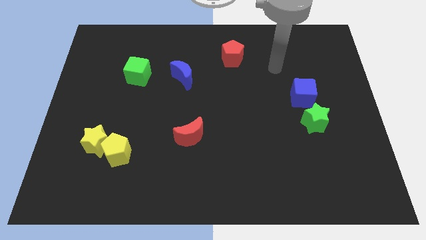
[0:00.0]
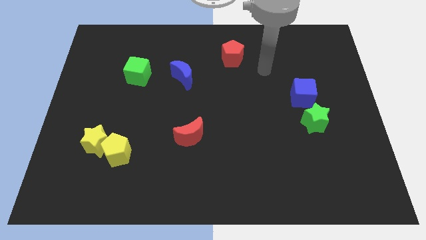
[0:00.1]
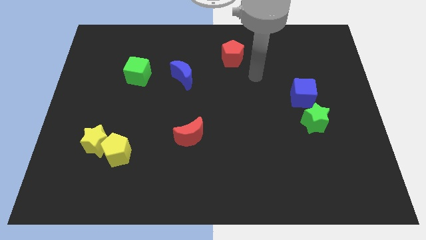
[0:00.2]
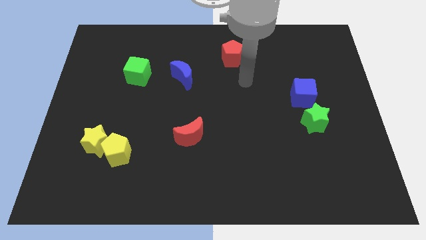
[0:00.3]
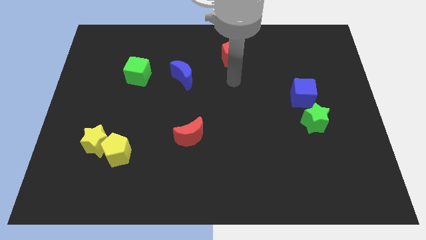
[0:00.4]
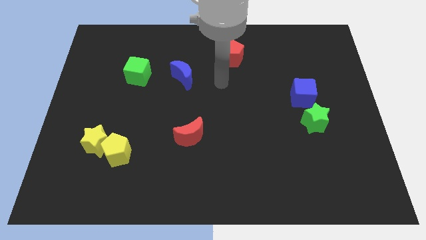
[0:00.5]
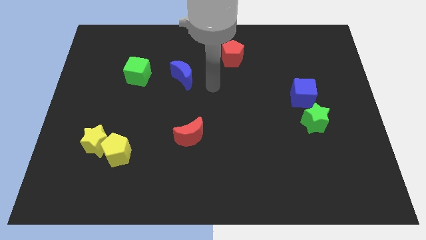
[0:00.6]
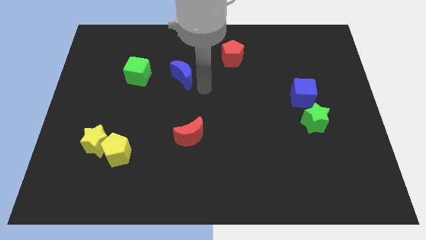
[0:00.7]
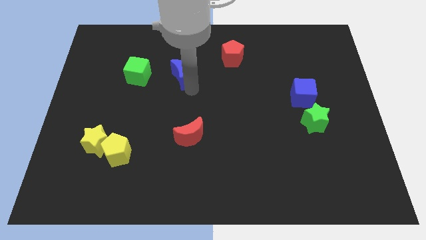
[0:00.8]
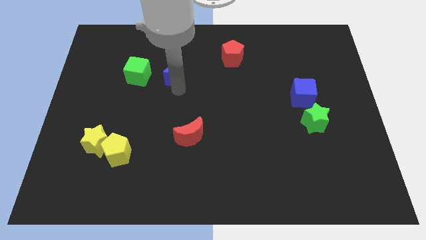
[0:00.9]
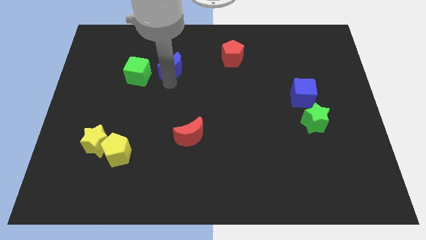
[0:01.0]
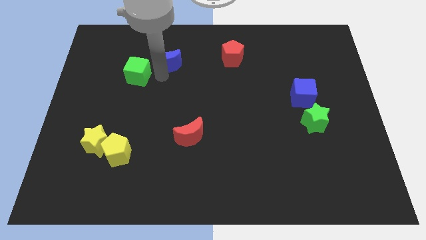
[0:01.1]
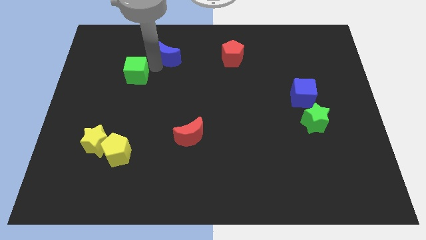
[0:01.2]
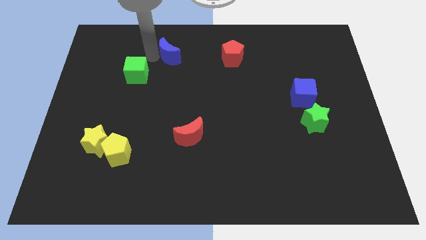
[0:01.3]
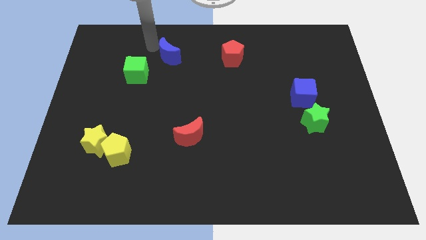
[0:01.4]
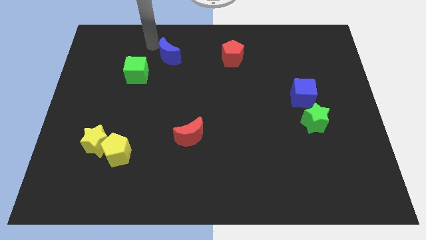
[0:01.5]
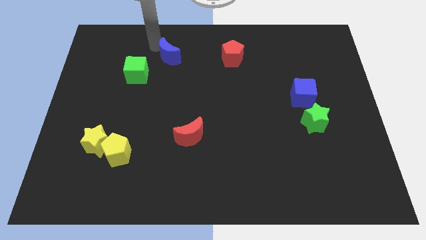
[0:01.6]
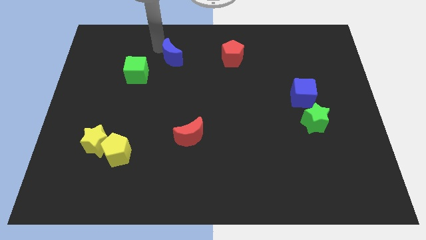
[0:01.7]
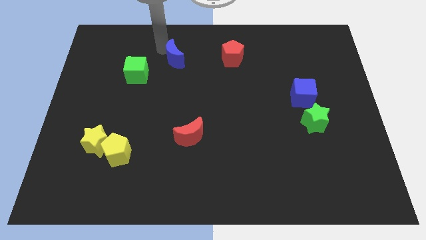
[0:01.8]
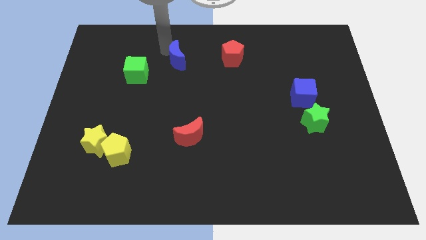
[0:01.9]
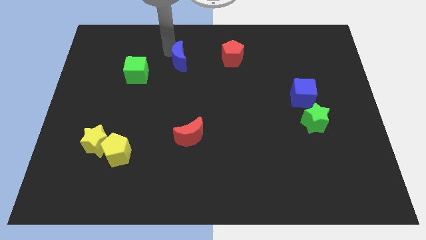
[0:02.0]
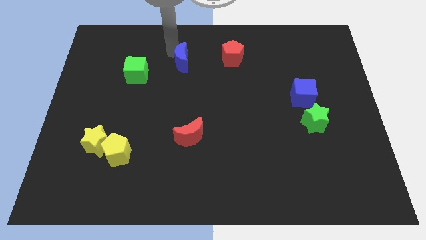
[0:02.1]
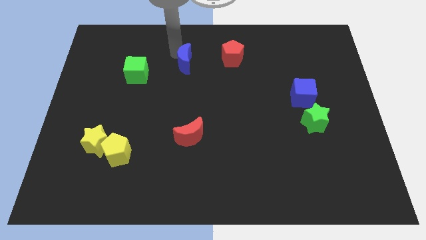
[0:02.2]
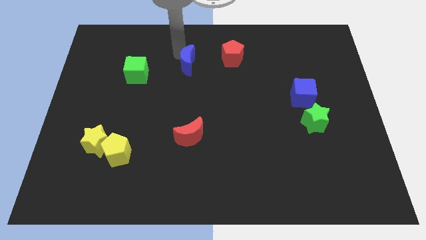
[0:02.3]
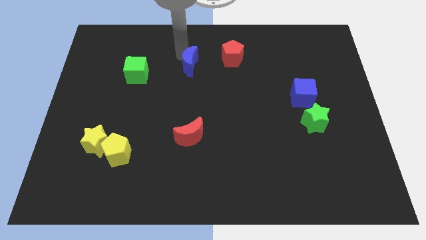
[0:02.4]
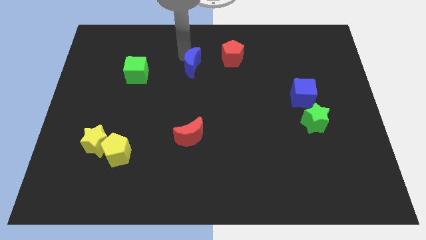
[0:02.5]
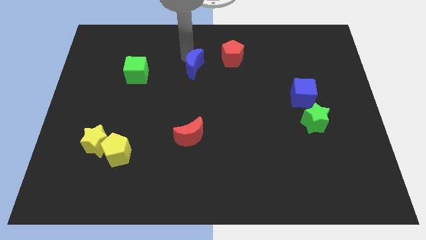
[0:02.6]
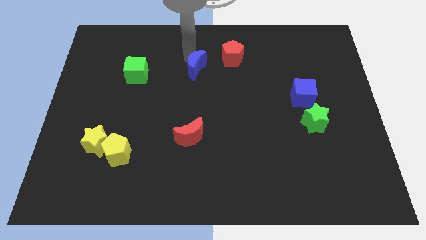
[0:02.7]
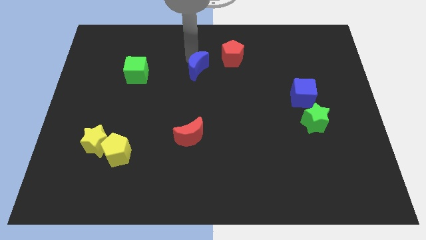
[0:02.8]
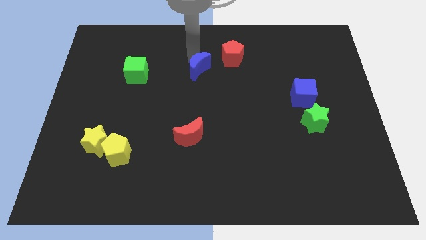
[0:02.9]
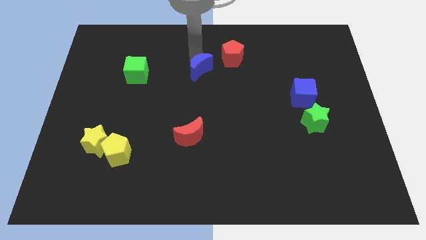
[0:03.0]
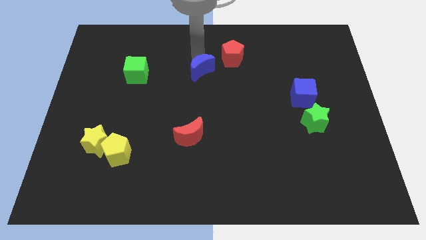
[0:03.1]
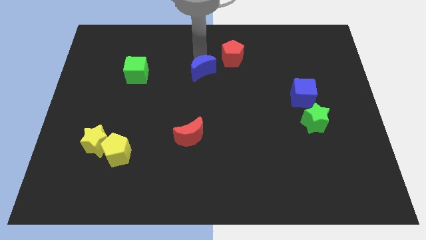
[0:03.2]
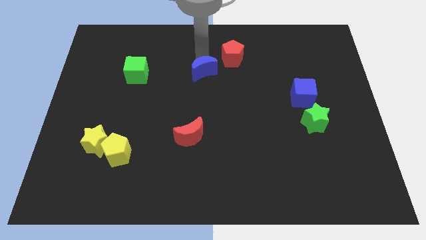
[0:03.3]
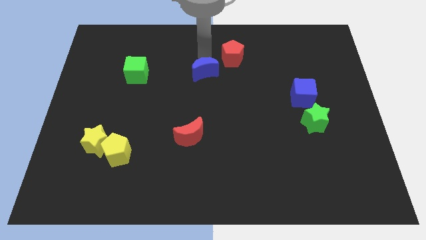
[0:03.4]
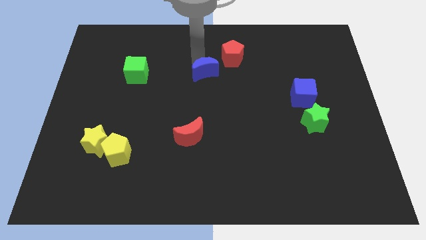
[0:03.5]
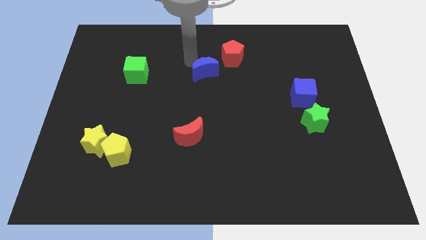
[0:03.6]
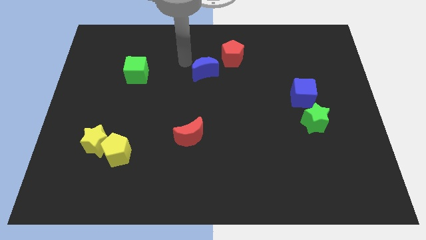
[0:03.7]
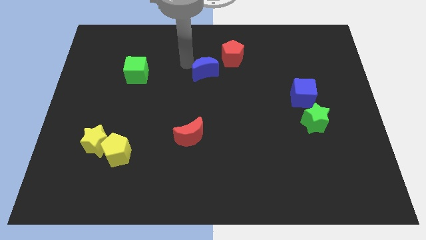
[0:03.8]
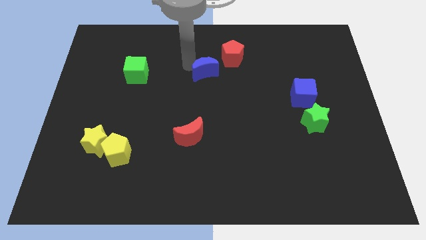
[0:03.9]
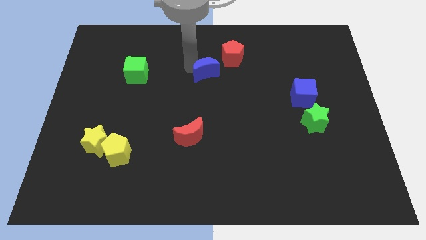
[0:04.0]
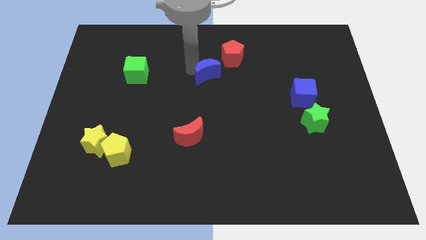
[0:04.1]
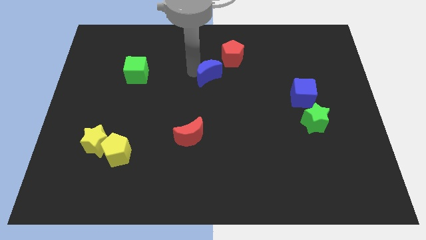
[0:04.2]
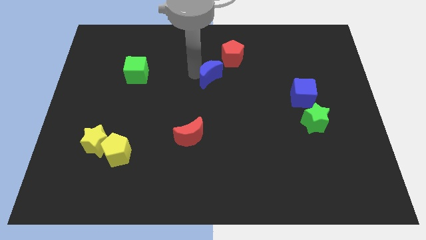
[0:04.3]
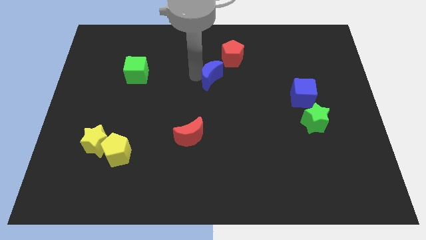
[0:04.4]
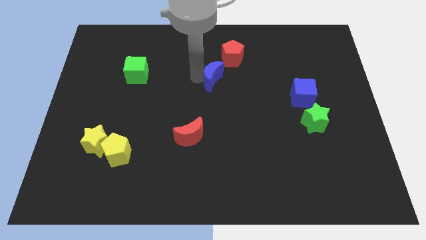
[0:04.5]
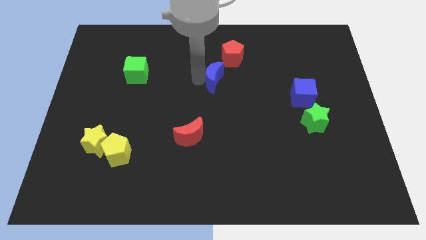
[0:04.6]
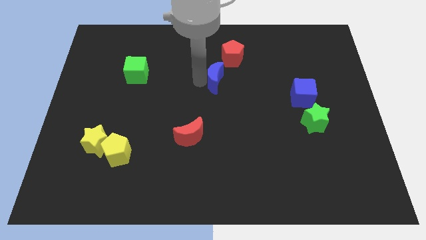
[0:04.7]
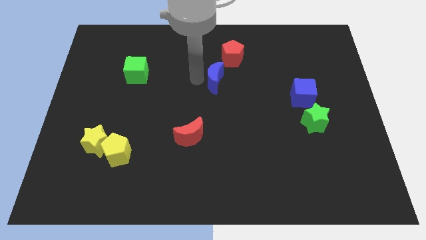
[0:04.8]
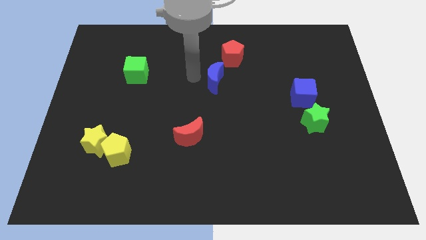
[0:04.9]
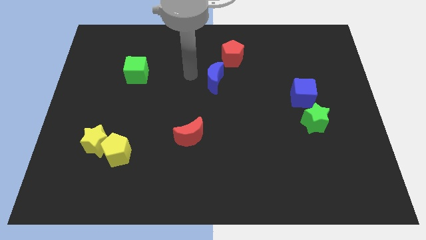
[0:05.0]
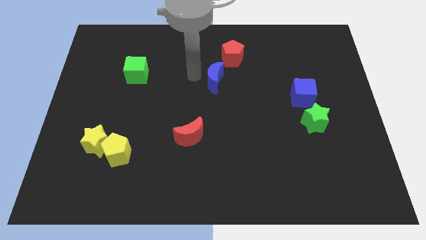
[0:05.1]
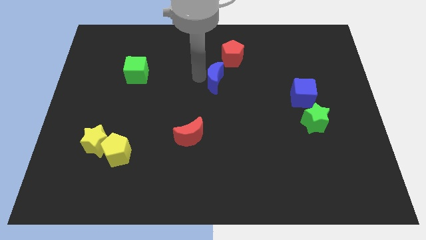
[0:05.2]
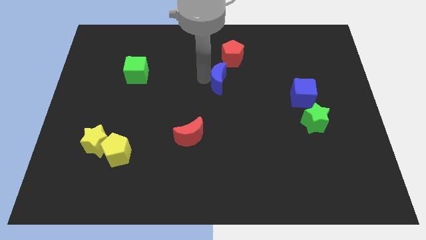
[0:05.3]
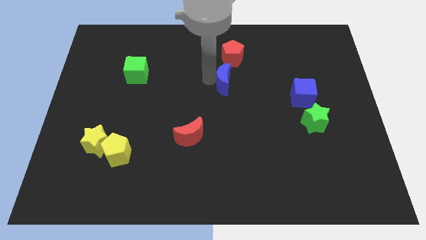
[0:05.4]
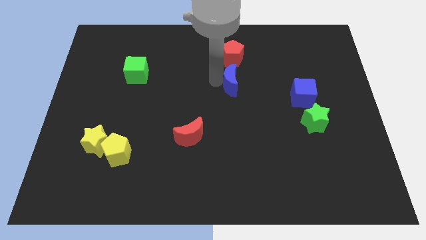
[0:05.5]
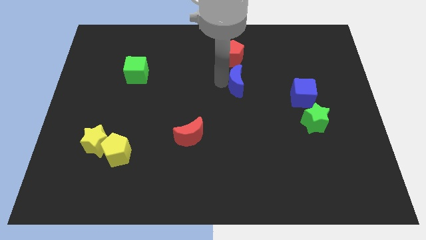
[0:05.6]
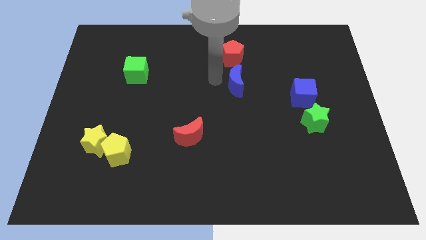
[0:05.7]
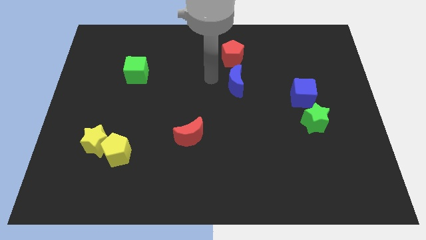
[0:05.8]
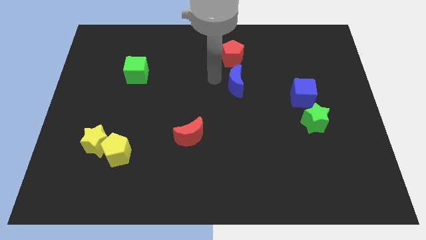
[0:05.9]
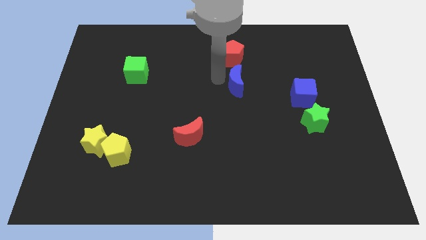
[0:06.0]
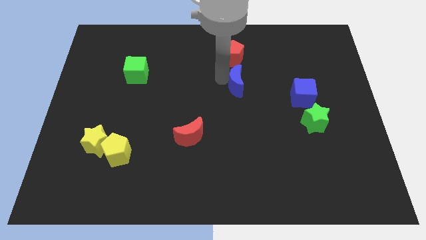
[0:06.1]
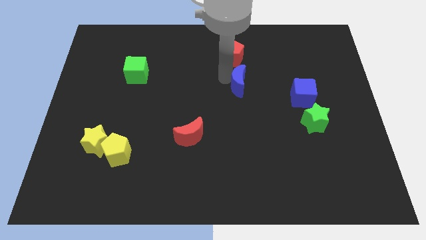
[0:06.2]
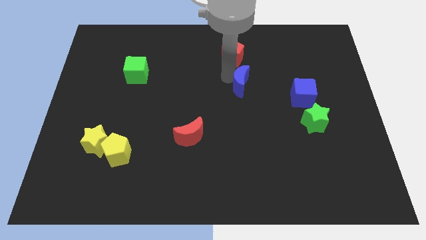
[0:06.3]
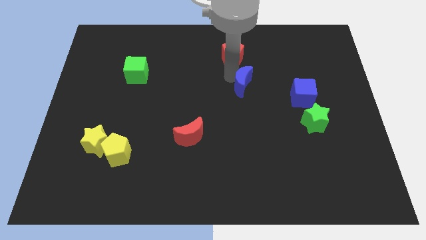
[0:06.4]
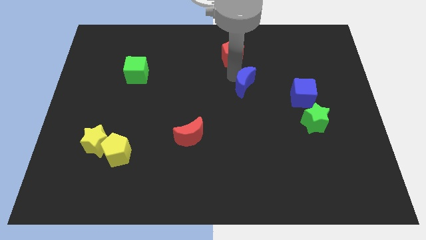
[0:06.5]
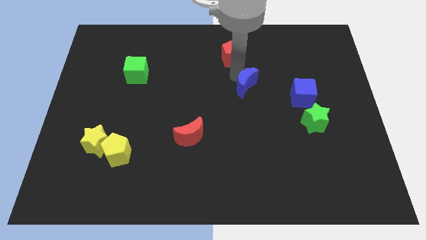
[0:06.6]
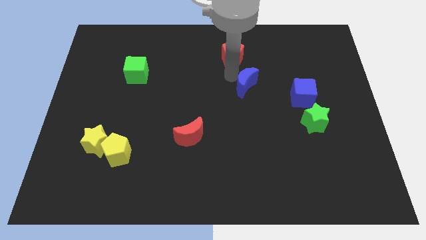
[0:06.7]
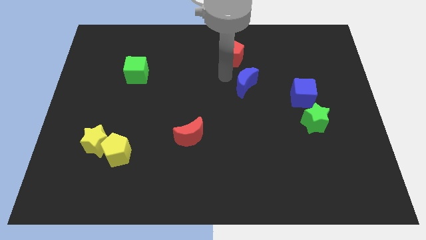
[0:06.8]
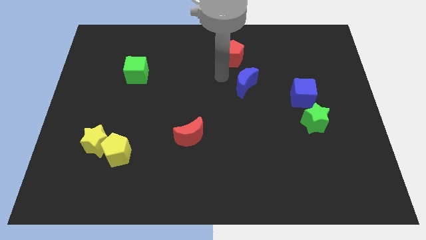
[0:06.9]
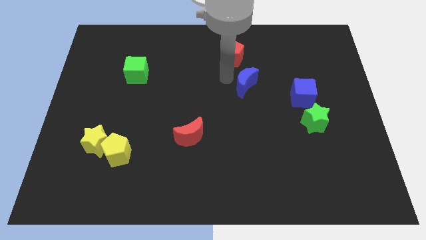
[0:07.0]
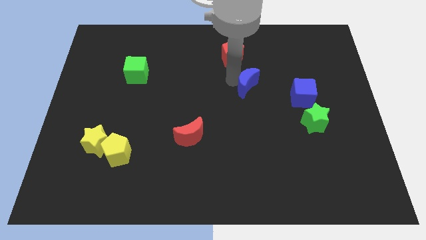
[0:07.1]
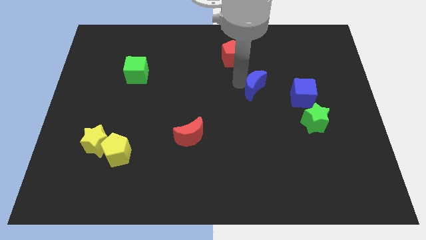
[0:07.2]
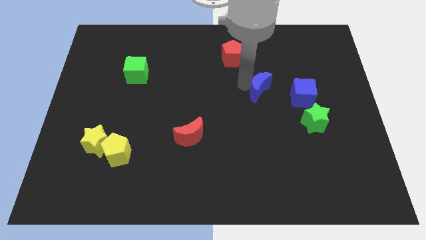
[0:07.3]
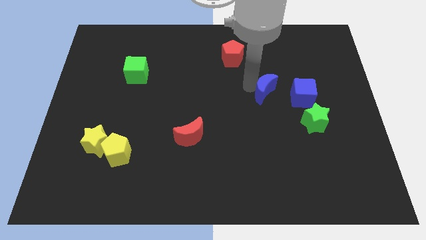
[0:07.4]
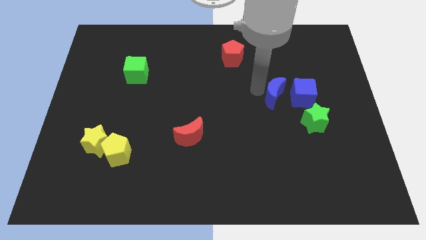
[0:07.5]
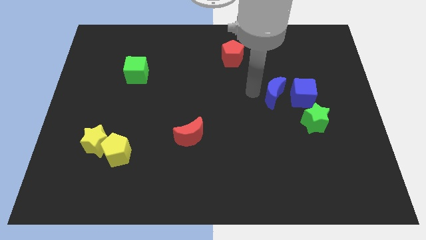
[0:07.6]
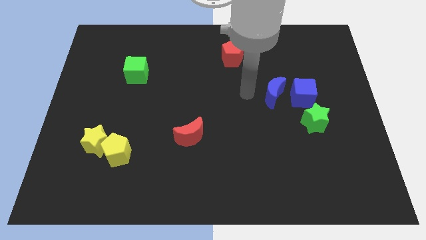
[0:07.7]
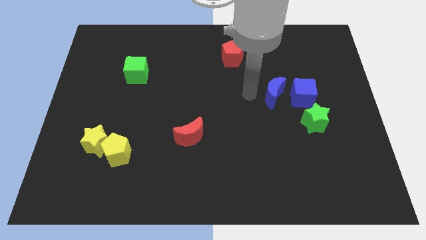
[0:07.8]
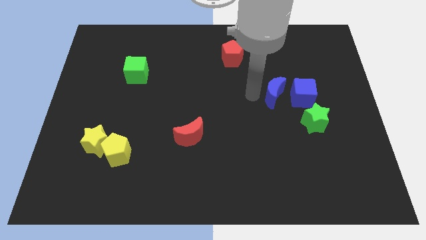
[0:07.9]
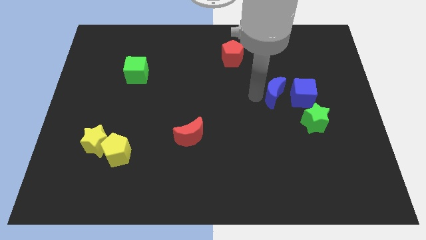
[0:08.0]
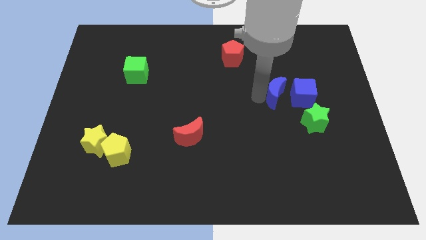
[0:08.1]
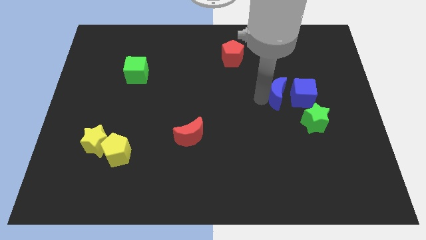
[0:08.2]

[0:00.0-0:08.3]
put the blue moon to the blue cube
